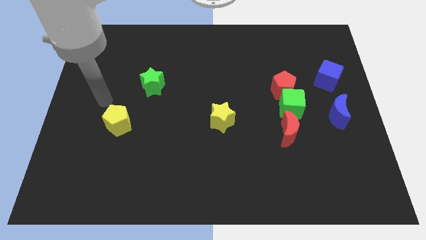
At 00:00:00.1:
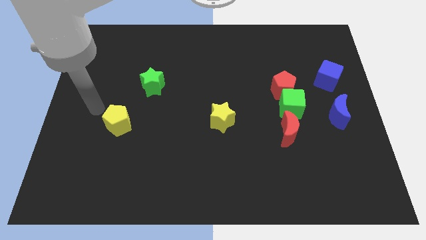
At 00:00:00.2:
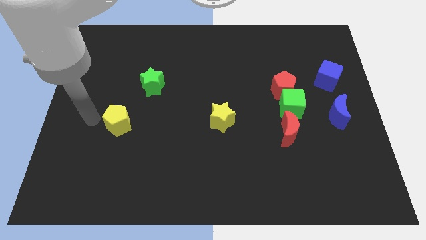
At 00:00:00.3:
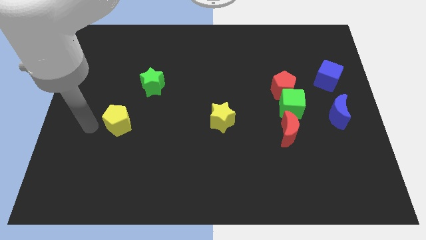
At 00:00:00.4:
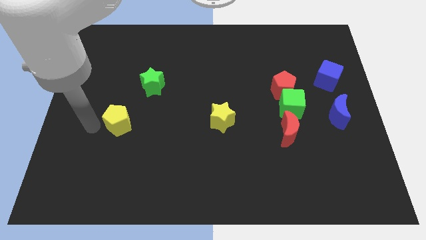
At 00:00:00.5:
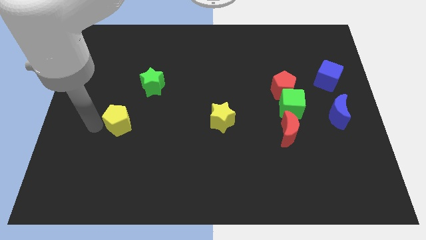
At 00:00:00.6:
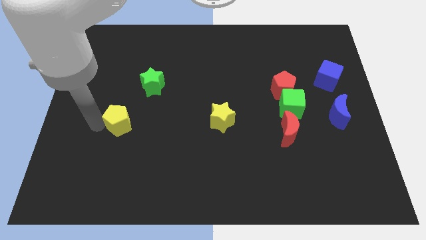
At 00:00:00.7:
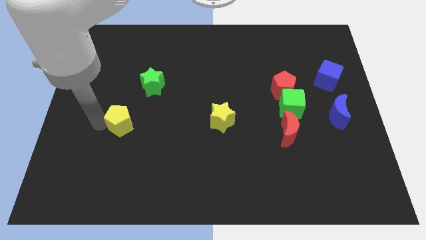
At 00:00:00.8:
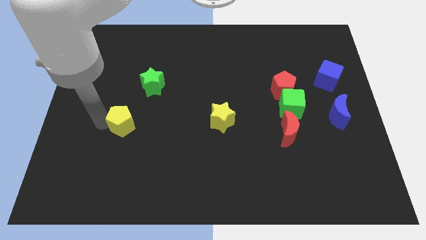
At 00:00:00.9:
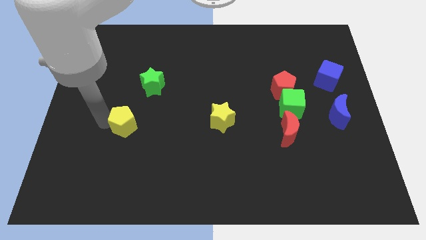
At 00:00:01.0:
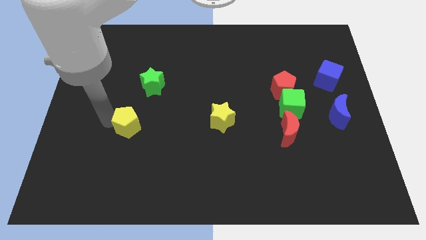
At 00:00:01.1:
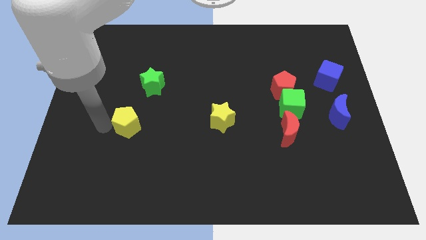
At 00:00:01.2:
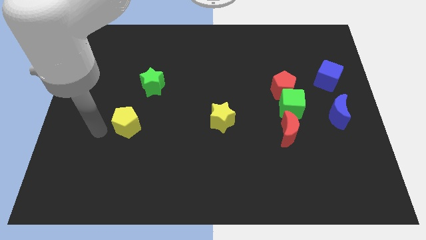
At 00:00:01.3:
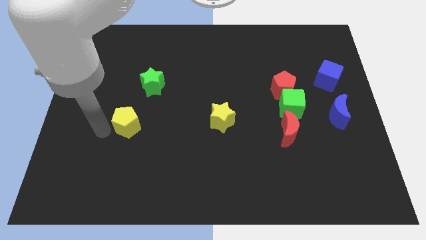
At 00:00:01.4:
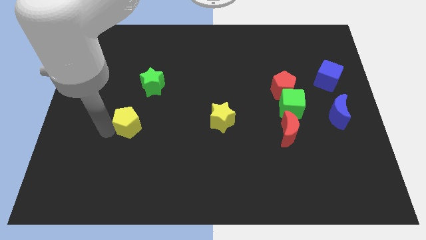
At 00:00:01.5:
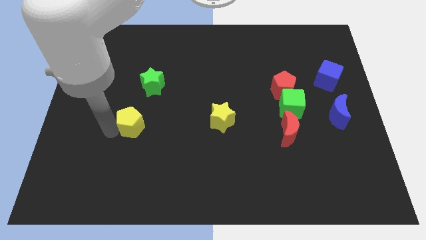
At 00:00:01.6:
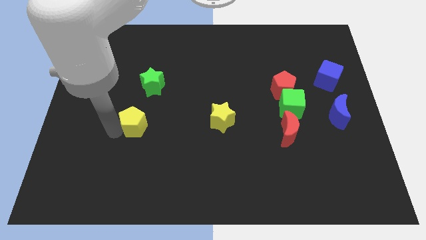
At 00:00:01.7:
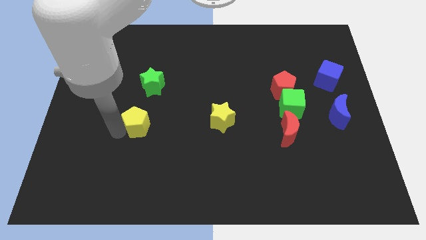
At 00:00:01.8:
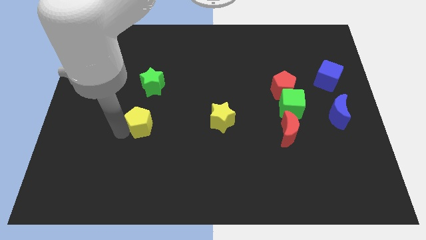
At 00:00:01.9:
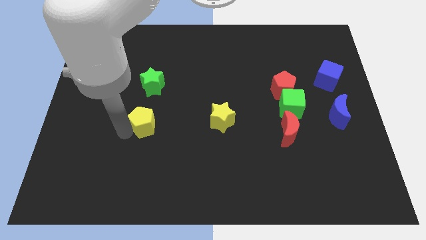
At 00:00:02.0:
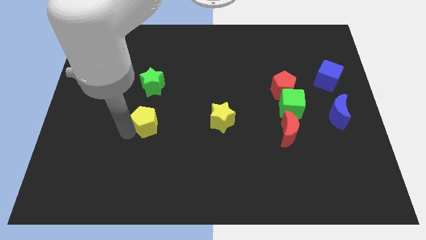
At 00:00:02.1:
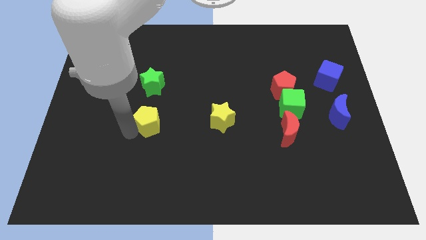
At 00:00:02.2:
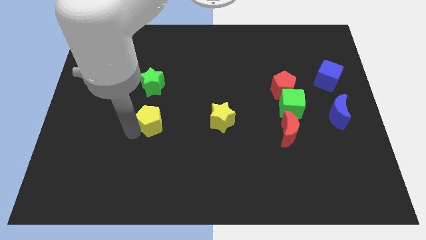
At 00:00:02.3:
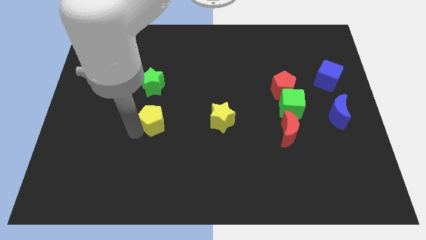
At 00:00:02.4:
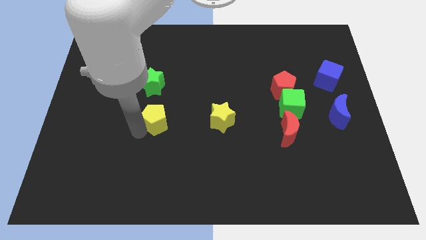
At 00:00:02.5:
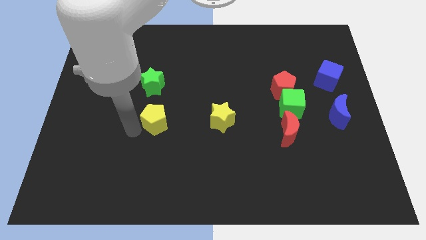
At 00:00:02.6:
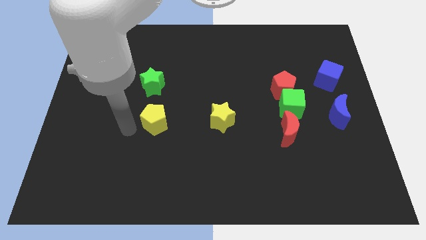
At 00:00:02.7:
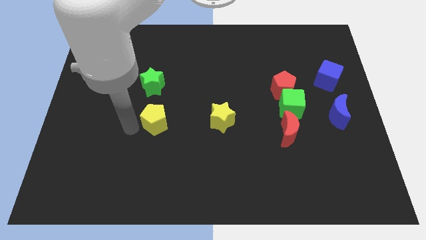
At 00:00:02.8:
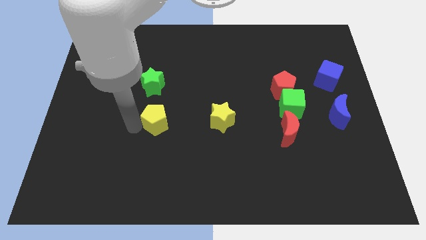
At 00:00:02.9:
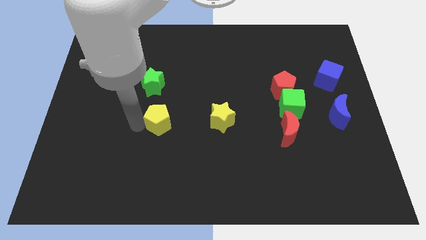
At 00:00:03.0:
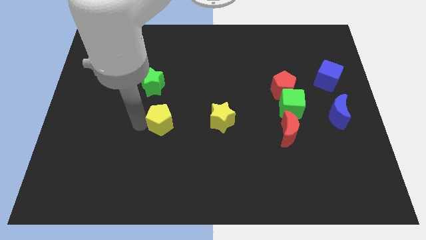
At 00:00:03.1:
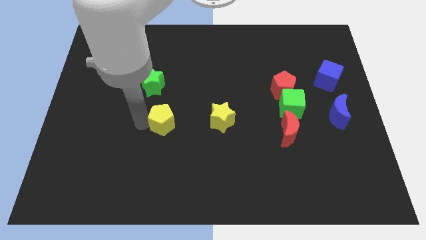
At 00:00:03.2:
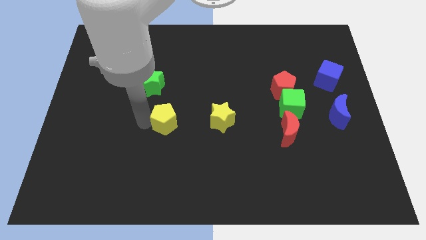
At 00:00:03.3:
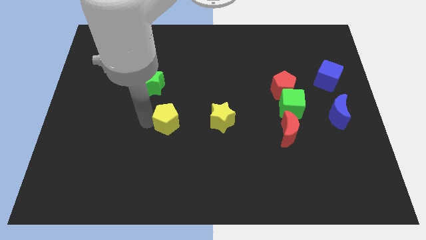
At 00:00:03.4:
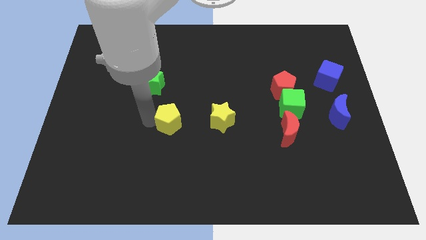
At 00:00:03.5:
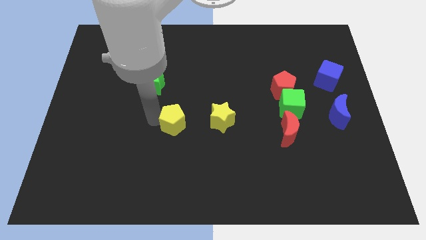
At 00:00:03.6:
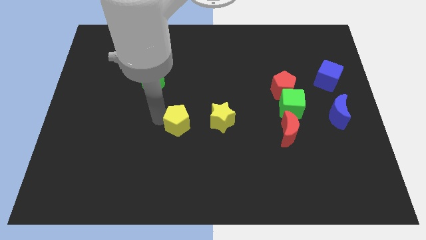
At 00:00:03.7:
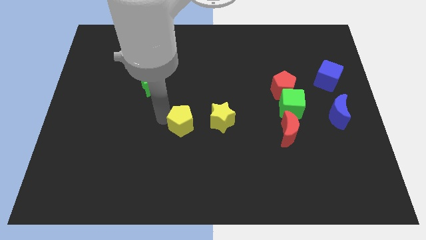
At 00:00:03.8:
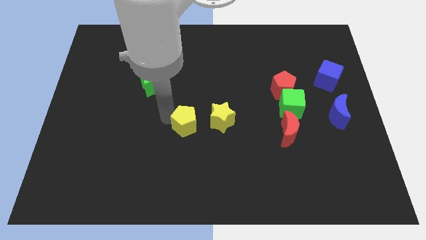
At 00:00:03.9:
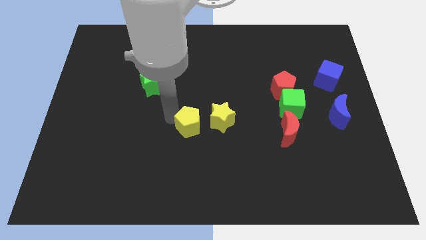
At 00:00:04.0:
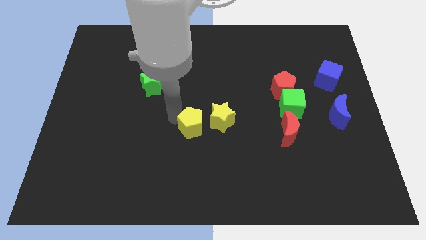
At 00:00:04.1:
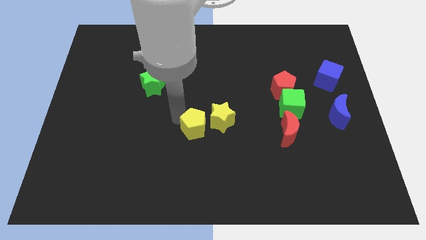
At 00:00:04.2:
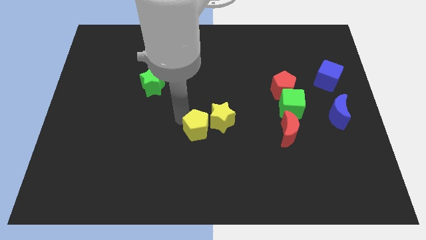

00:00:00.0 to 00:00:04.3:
move the yellow pentagon to the yellow star

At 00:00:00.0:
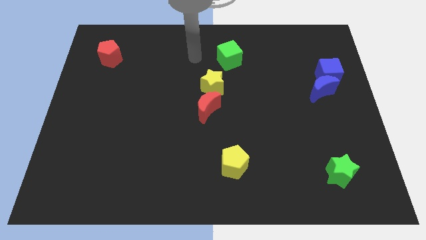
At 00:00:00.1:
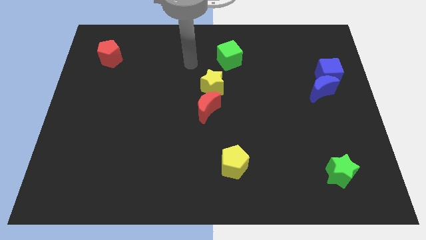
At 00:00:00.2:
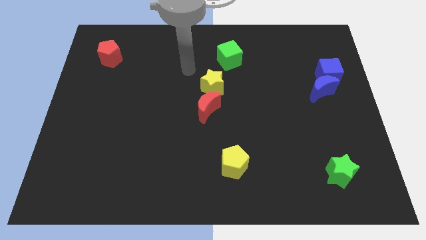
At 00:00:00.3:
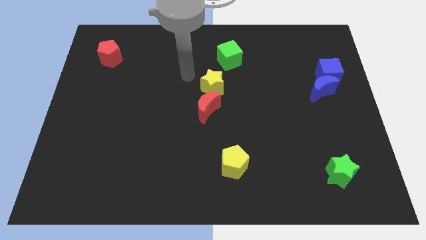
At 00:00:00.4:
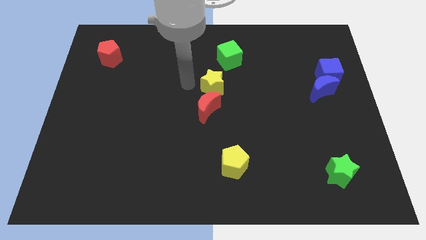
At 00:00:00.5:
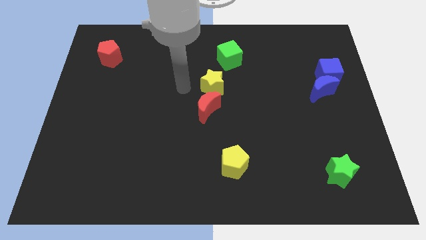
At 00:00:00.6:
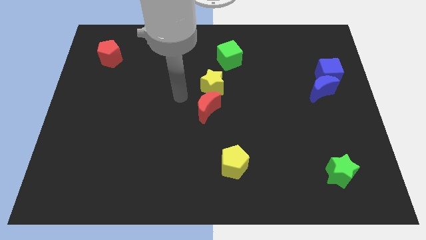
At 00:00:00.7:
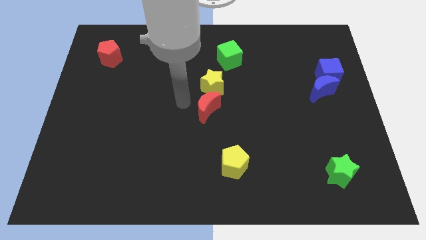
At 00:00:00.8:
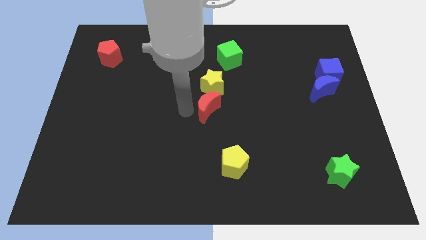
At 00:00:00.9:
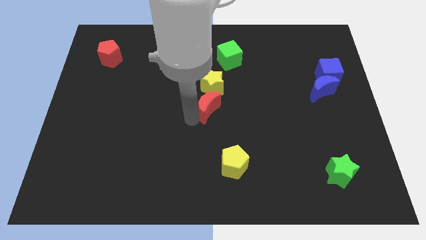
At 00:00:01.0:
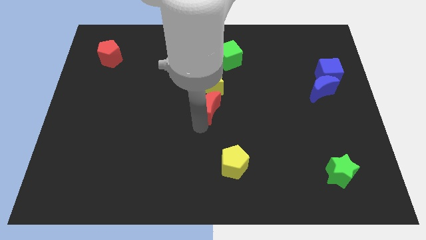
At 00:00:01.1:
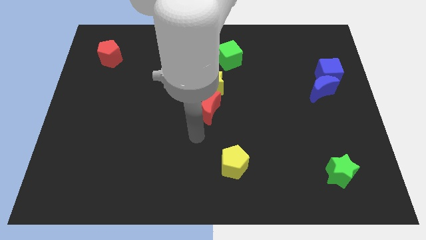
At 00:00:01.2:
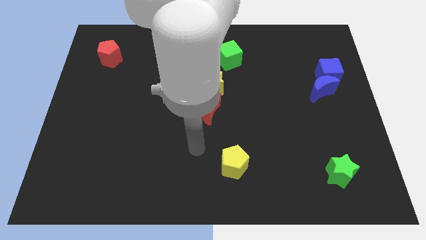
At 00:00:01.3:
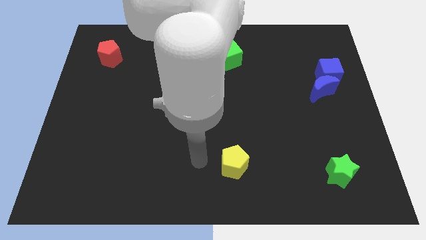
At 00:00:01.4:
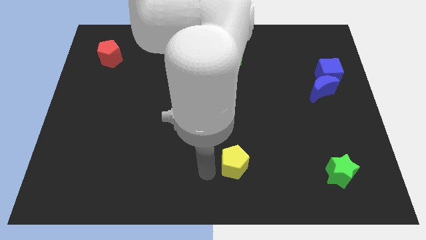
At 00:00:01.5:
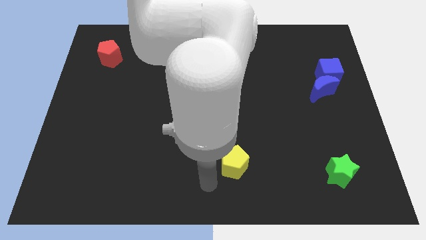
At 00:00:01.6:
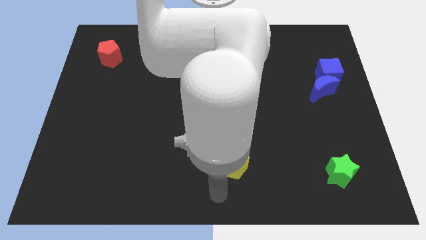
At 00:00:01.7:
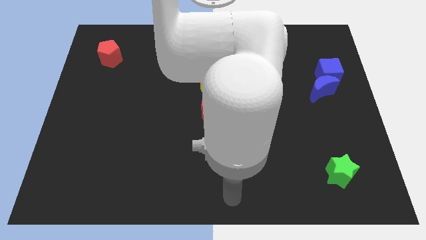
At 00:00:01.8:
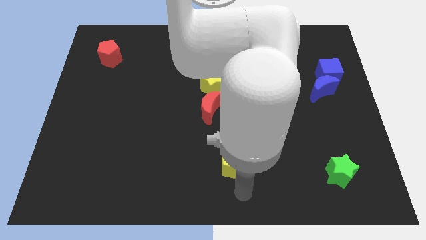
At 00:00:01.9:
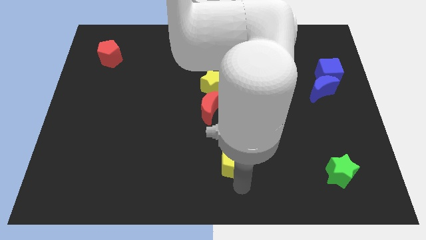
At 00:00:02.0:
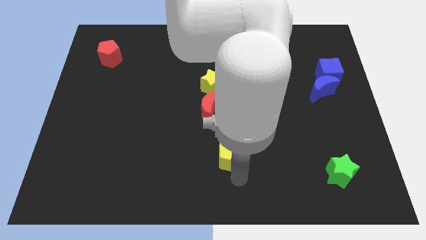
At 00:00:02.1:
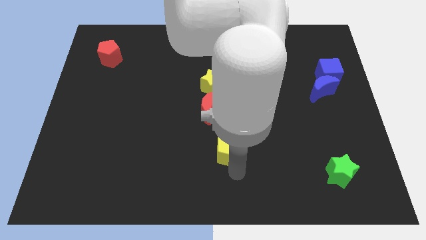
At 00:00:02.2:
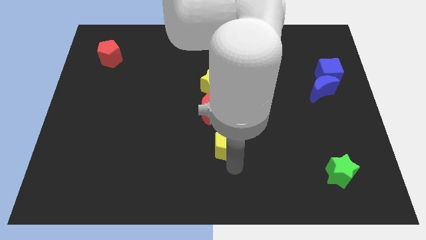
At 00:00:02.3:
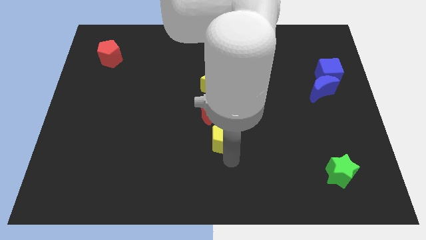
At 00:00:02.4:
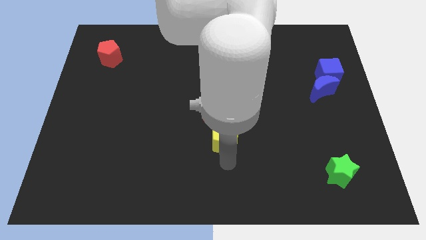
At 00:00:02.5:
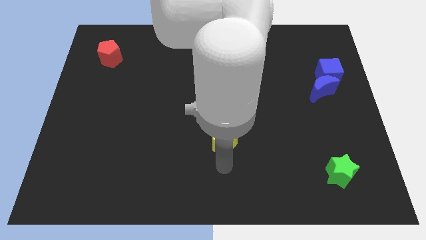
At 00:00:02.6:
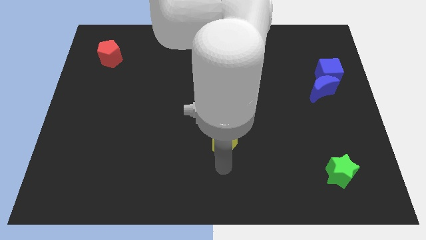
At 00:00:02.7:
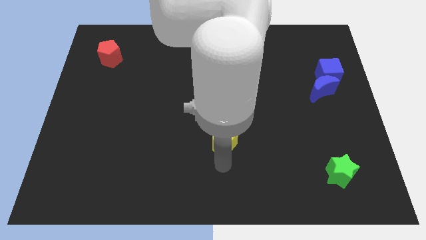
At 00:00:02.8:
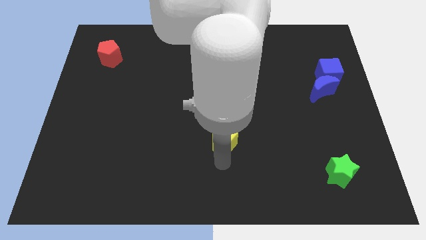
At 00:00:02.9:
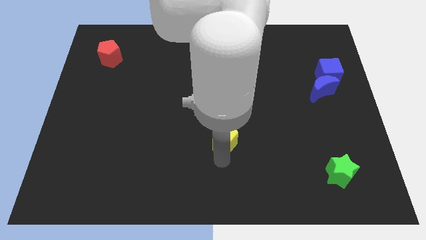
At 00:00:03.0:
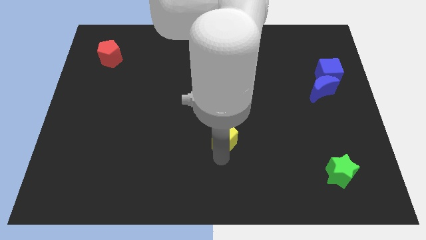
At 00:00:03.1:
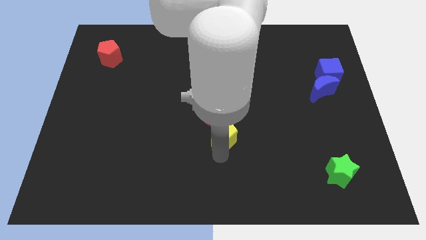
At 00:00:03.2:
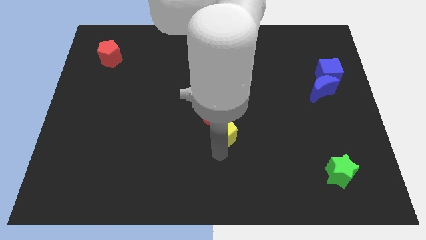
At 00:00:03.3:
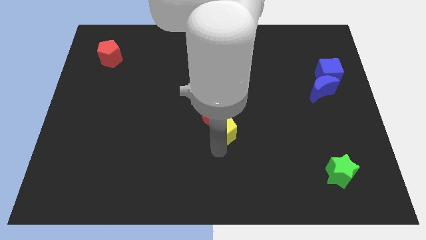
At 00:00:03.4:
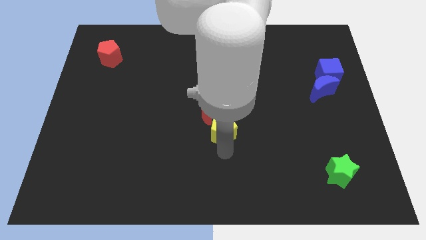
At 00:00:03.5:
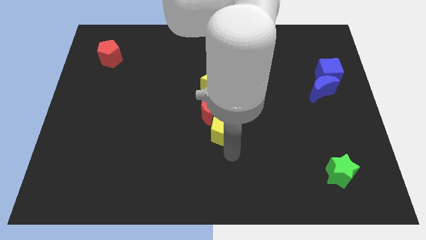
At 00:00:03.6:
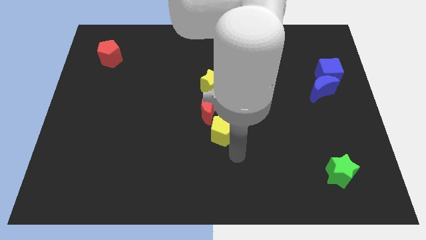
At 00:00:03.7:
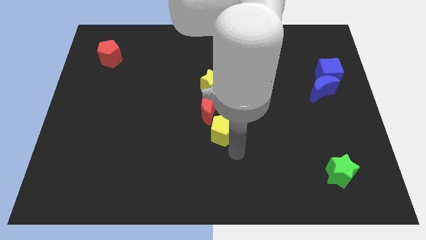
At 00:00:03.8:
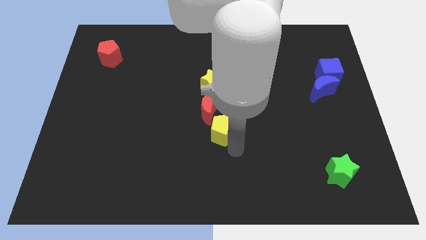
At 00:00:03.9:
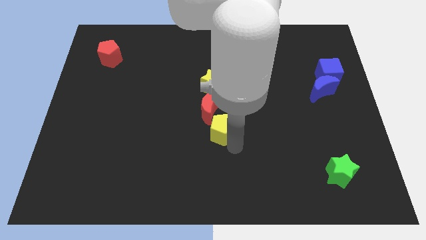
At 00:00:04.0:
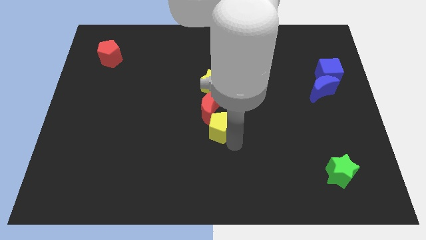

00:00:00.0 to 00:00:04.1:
move the yellow pentagon towards the red moon
